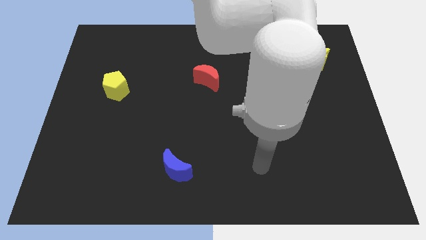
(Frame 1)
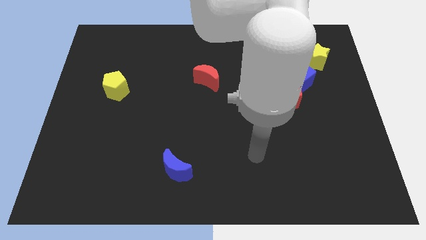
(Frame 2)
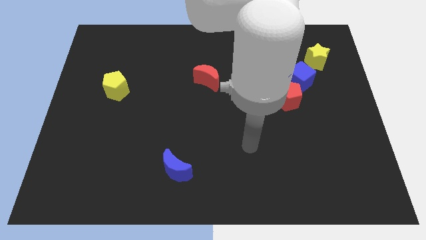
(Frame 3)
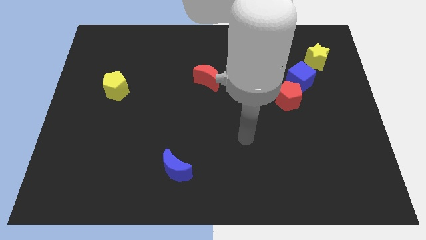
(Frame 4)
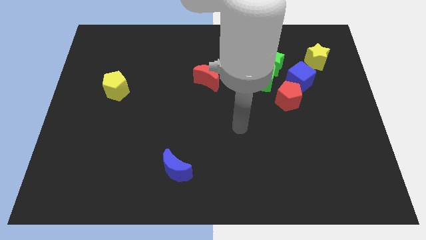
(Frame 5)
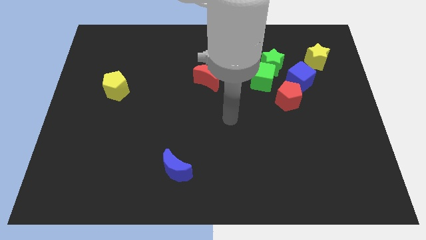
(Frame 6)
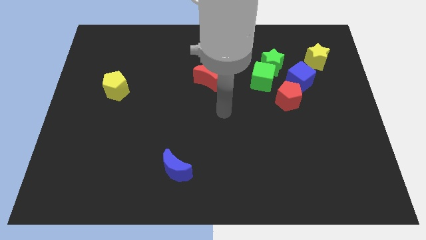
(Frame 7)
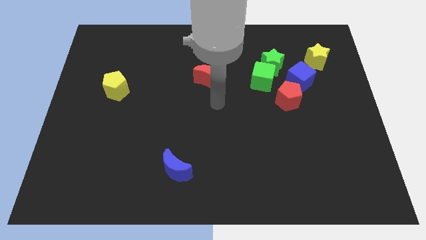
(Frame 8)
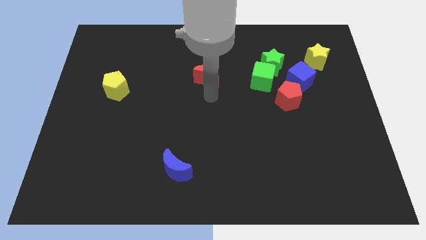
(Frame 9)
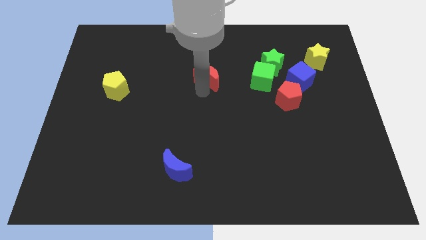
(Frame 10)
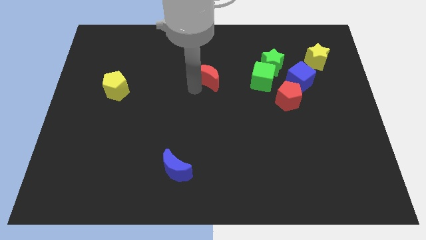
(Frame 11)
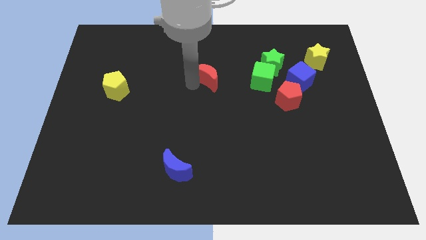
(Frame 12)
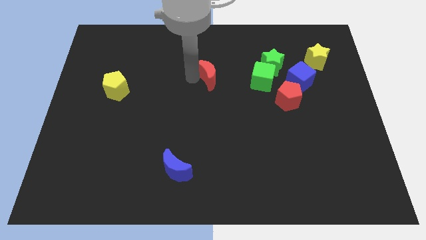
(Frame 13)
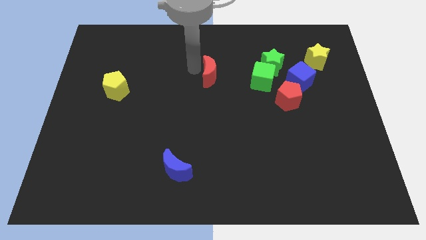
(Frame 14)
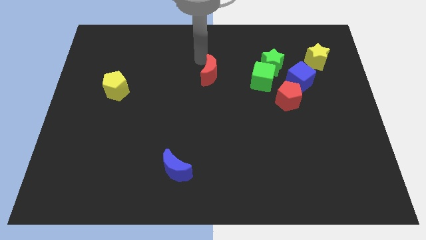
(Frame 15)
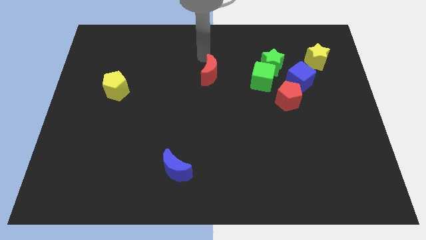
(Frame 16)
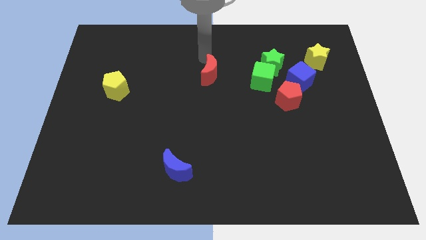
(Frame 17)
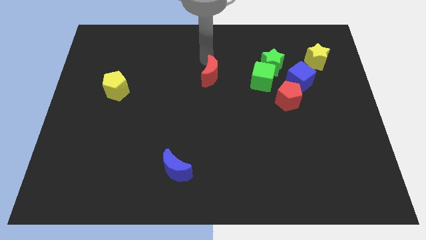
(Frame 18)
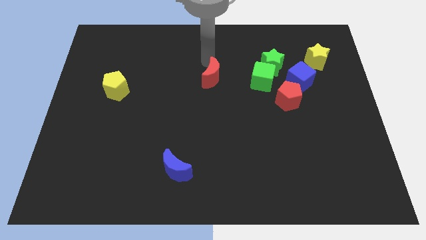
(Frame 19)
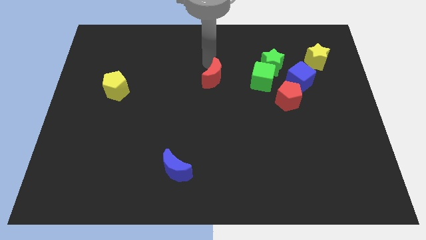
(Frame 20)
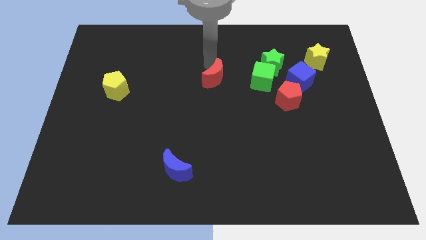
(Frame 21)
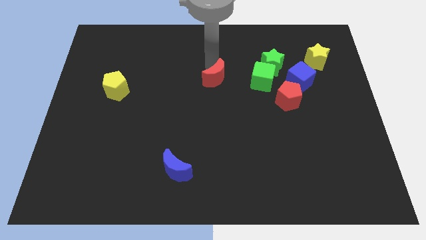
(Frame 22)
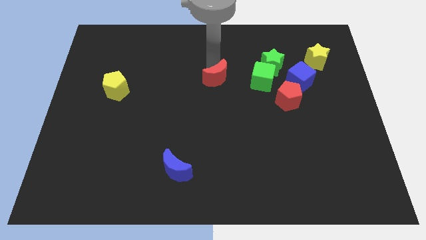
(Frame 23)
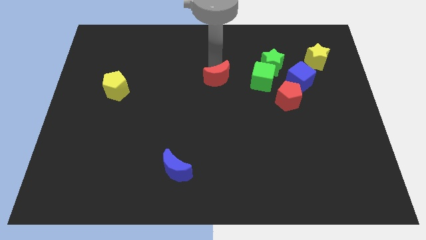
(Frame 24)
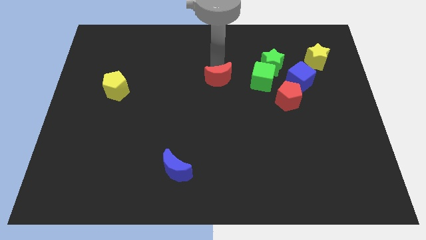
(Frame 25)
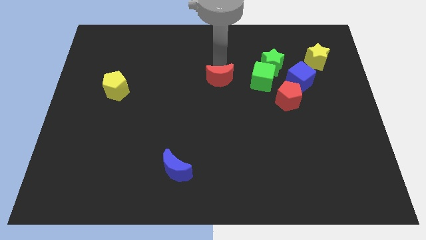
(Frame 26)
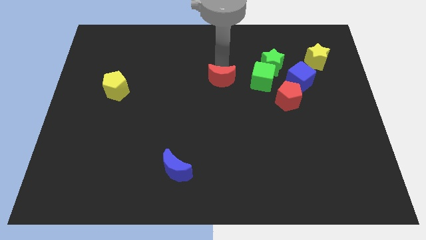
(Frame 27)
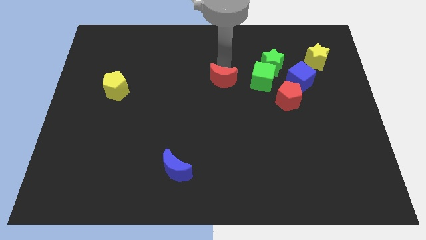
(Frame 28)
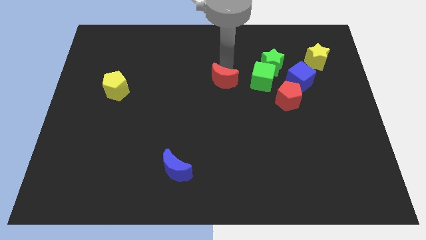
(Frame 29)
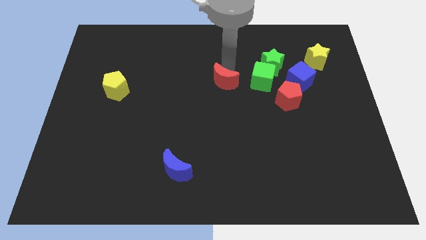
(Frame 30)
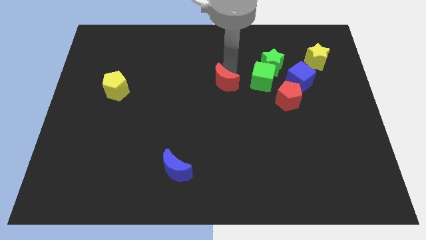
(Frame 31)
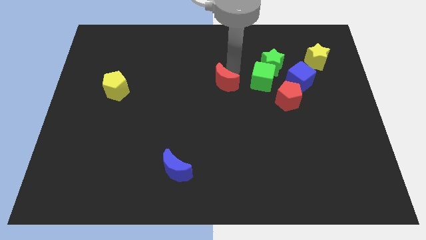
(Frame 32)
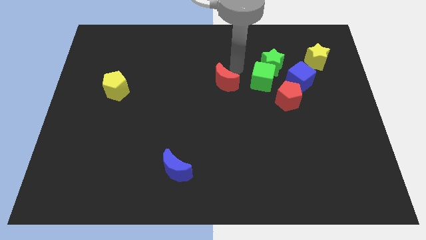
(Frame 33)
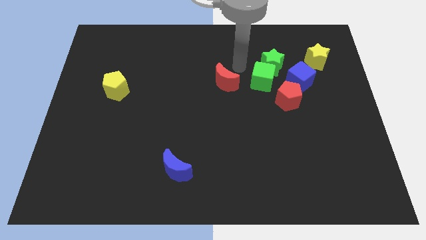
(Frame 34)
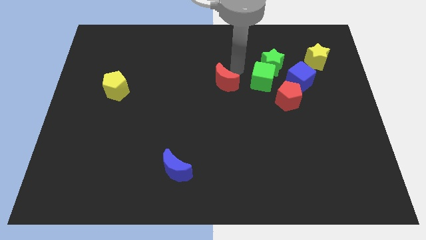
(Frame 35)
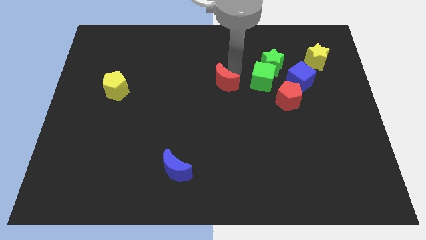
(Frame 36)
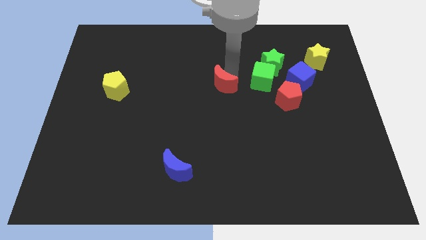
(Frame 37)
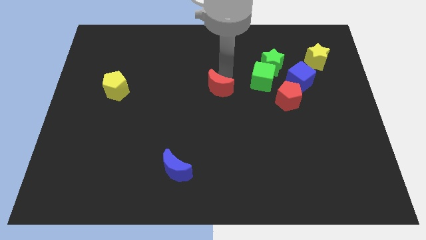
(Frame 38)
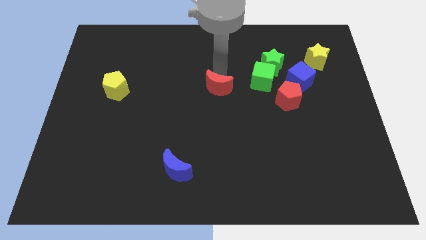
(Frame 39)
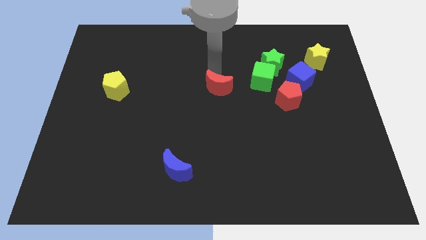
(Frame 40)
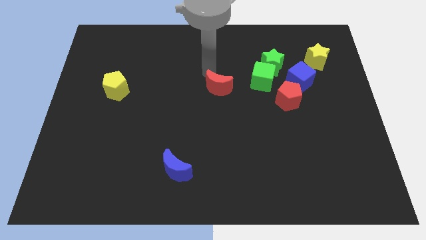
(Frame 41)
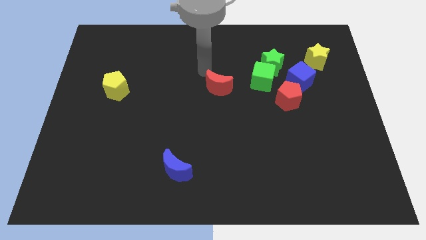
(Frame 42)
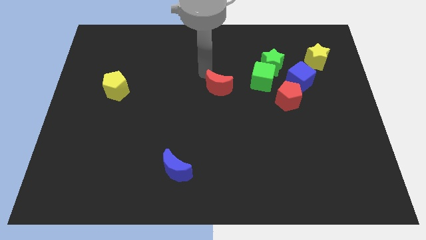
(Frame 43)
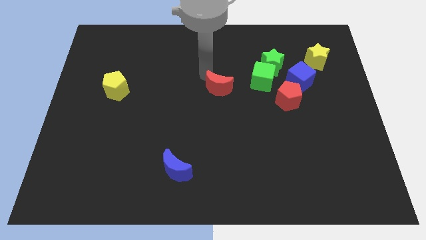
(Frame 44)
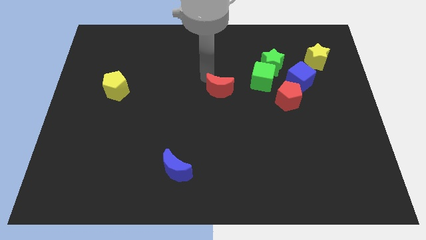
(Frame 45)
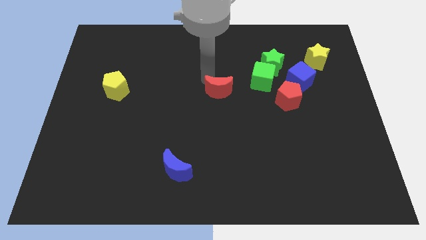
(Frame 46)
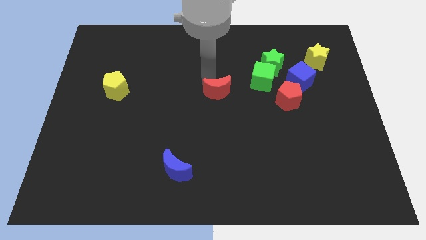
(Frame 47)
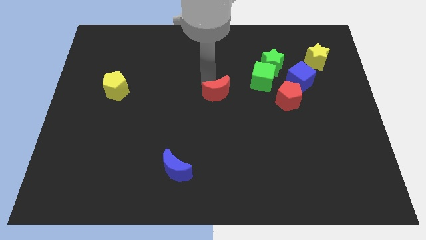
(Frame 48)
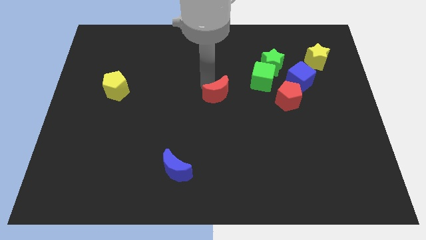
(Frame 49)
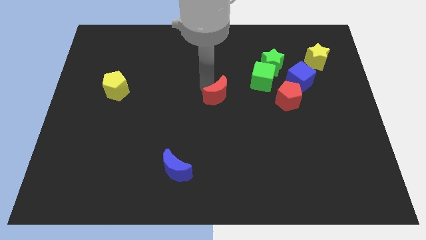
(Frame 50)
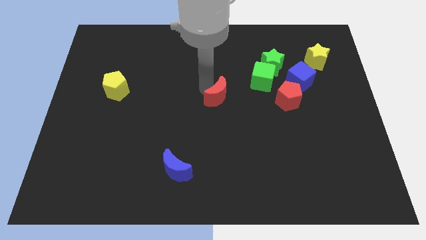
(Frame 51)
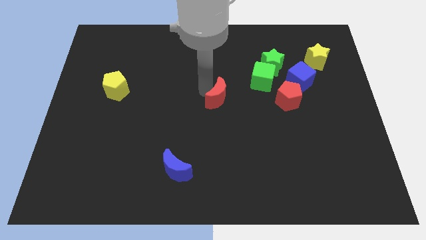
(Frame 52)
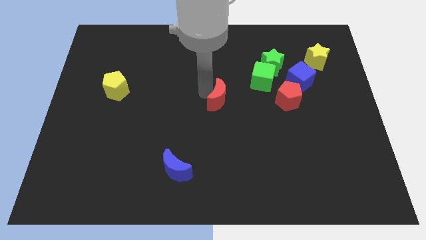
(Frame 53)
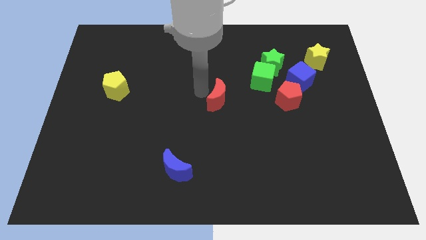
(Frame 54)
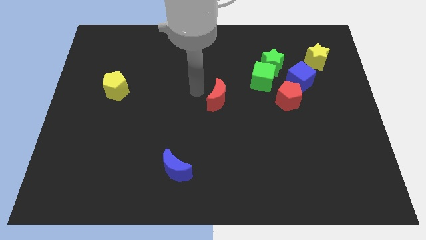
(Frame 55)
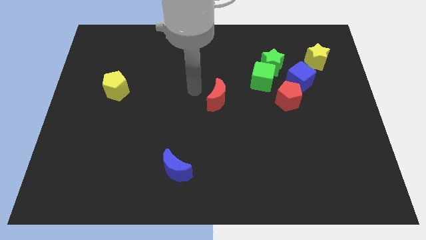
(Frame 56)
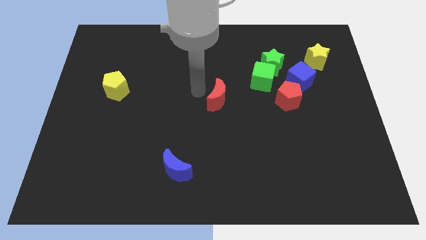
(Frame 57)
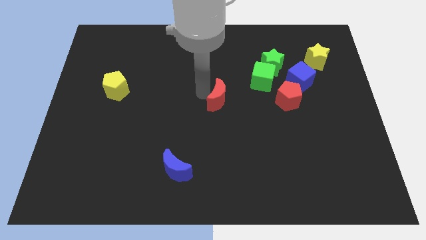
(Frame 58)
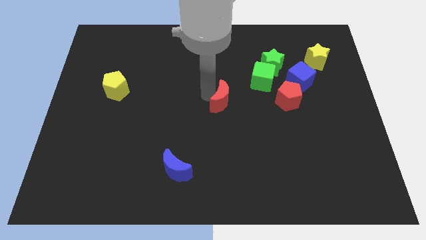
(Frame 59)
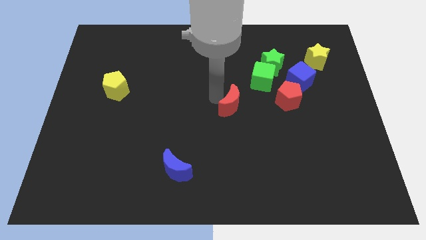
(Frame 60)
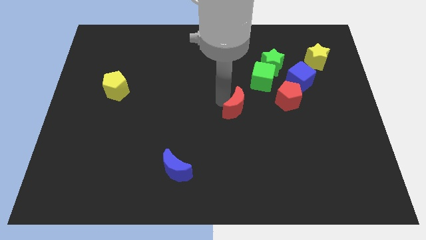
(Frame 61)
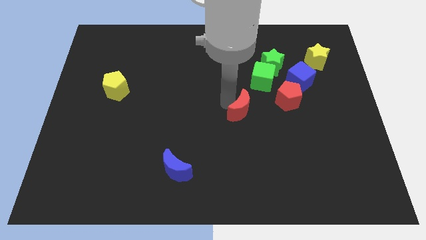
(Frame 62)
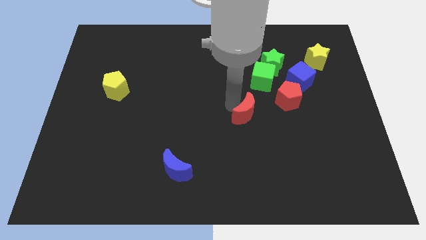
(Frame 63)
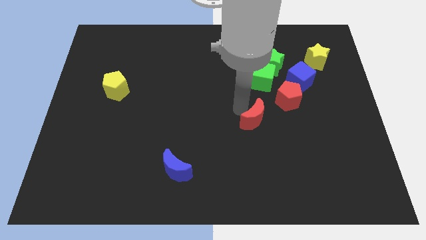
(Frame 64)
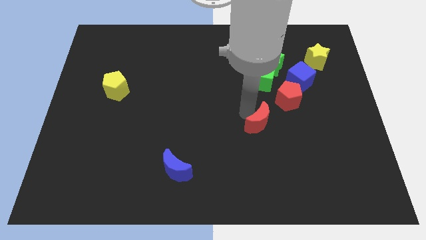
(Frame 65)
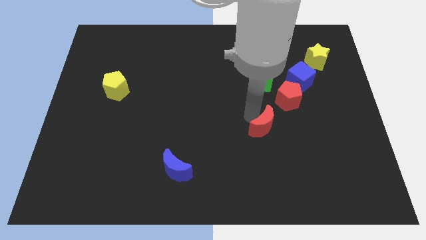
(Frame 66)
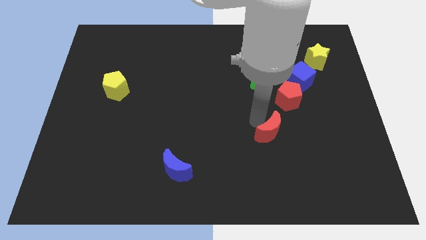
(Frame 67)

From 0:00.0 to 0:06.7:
slide the red moon diagonally down and to the right

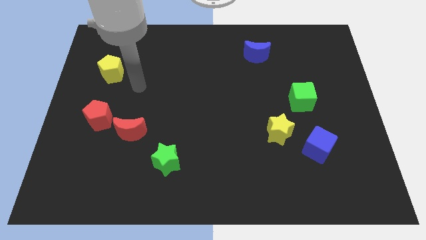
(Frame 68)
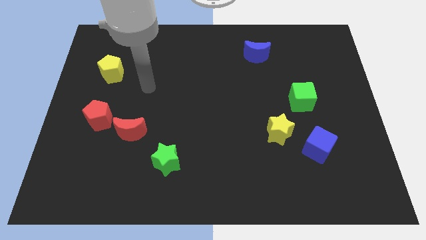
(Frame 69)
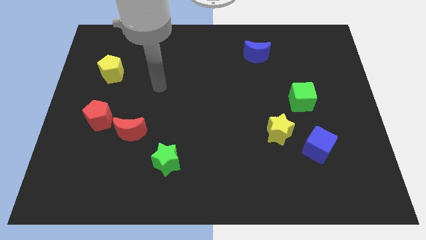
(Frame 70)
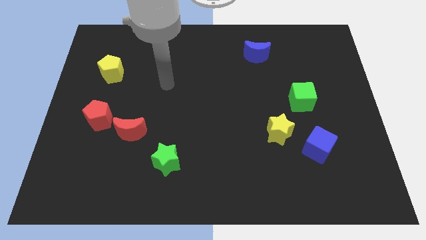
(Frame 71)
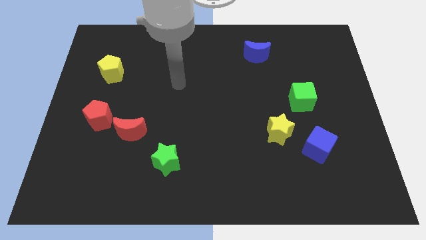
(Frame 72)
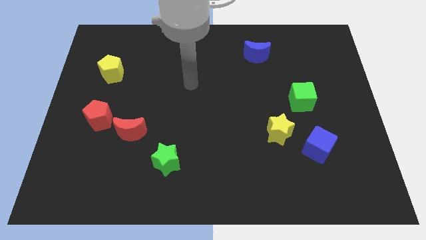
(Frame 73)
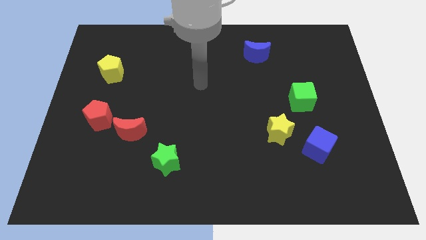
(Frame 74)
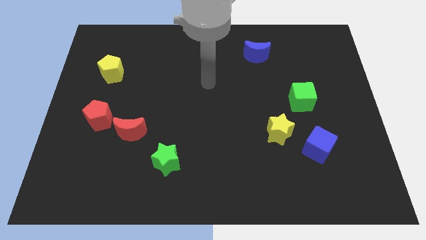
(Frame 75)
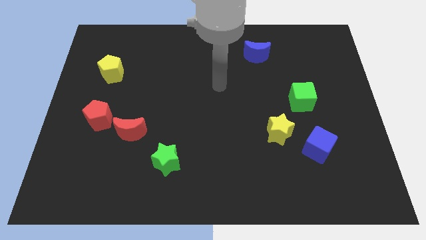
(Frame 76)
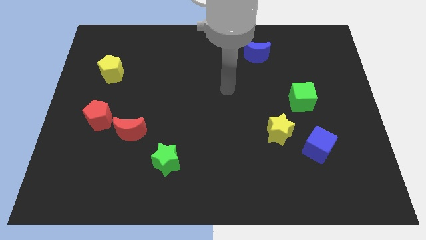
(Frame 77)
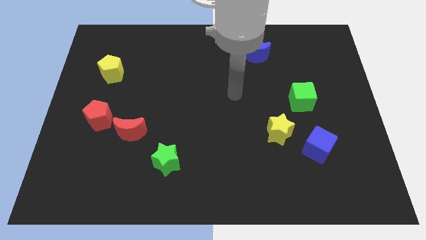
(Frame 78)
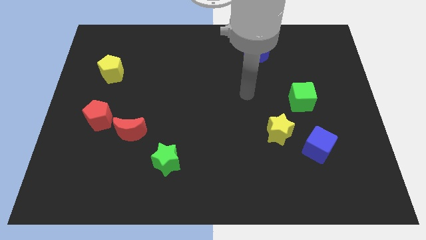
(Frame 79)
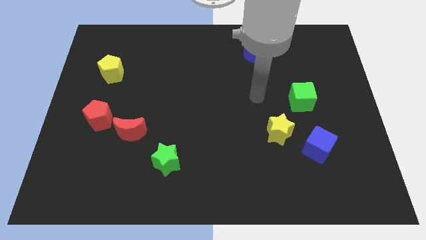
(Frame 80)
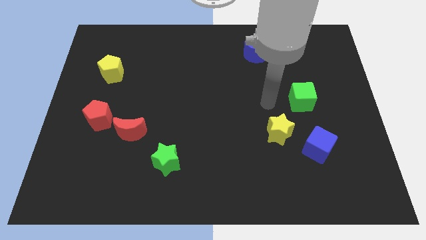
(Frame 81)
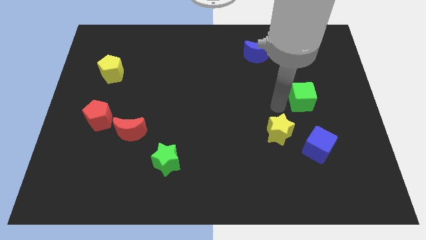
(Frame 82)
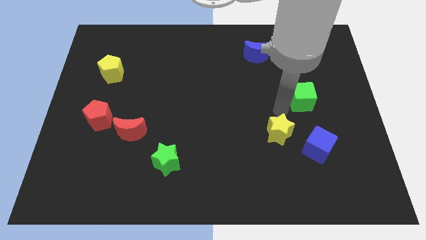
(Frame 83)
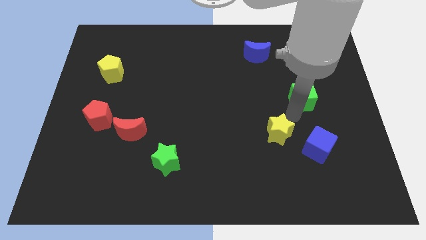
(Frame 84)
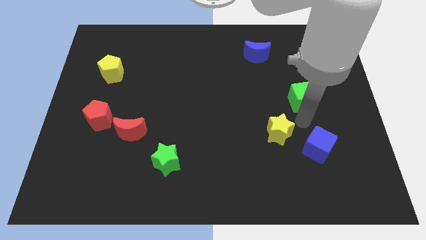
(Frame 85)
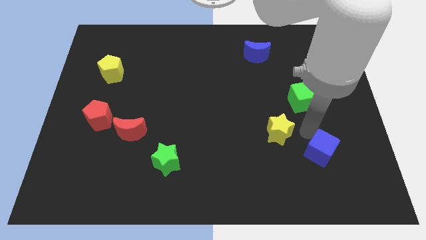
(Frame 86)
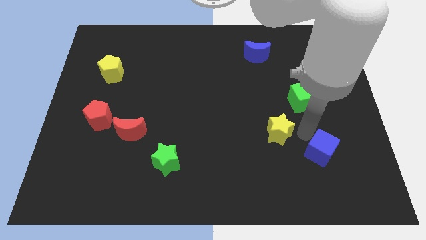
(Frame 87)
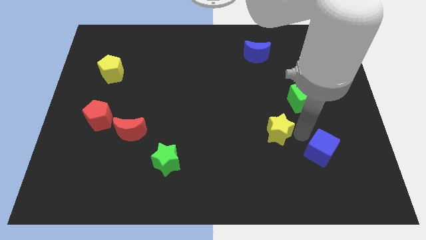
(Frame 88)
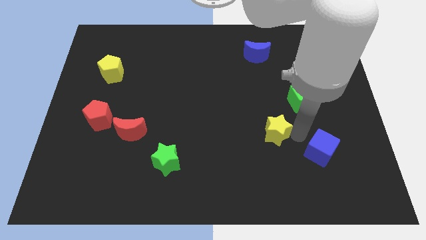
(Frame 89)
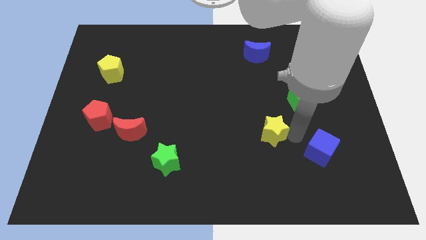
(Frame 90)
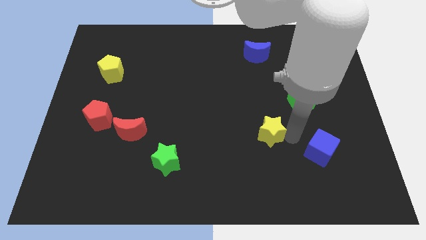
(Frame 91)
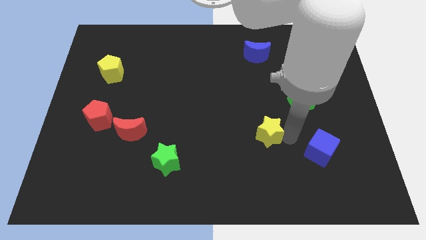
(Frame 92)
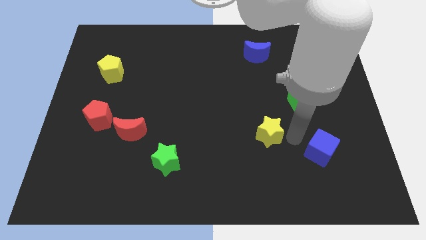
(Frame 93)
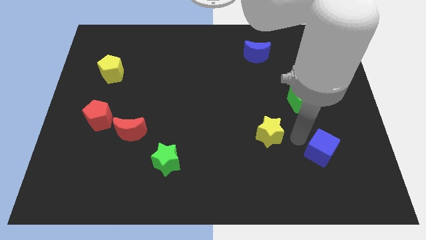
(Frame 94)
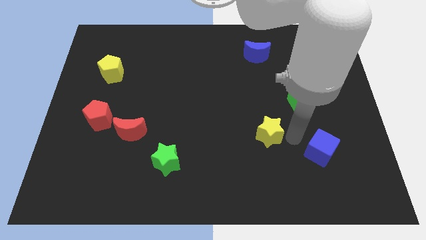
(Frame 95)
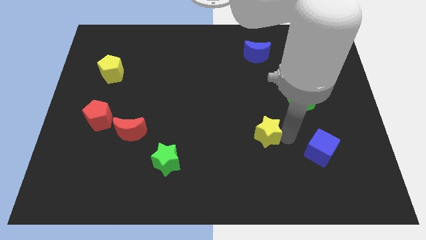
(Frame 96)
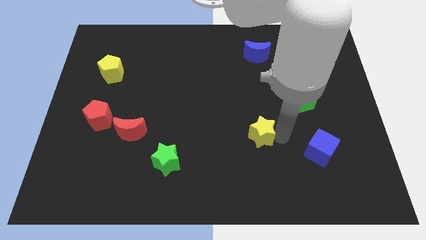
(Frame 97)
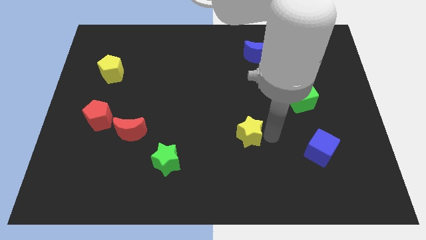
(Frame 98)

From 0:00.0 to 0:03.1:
slide the yellow star left a little
